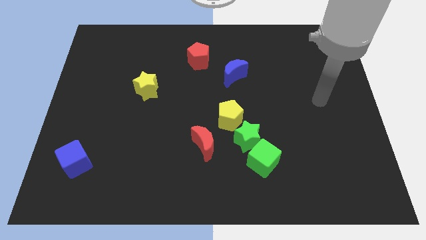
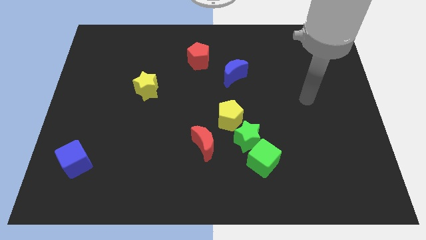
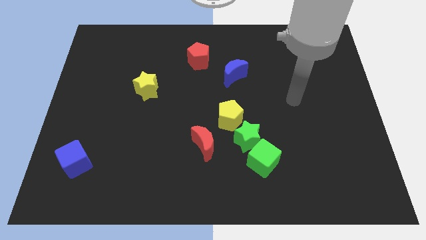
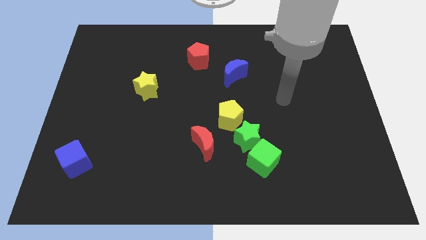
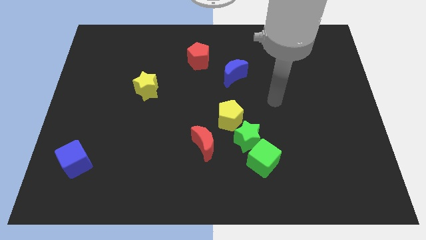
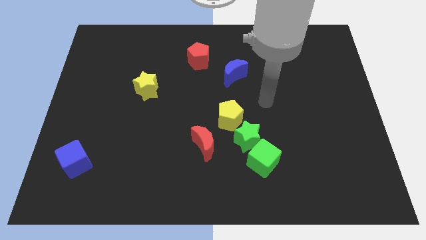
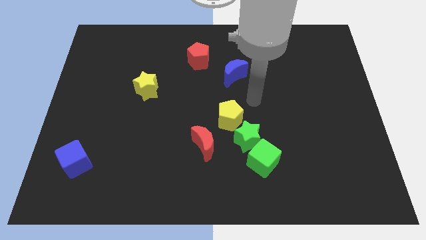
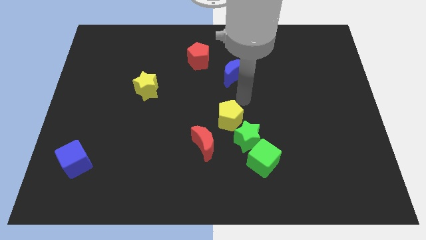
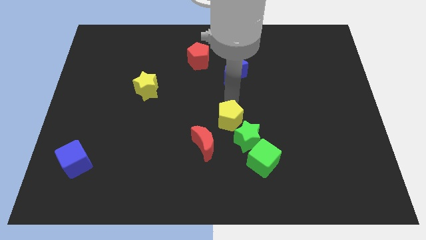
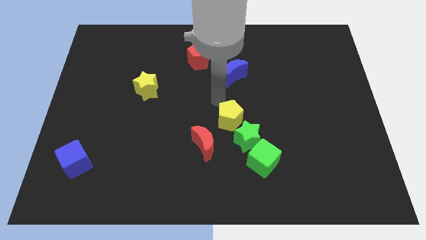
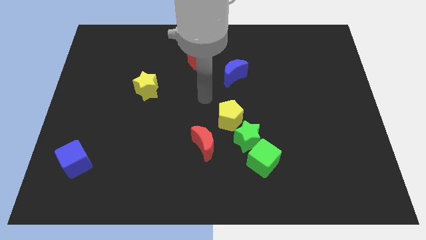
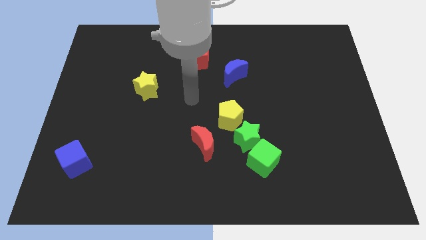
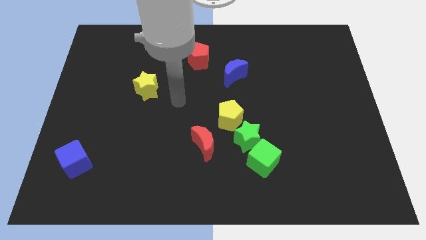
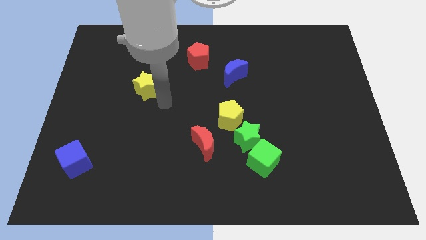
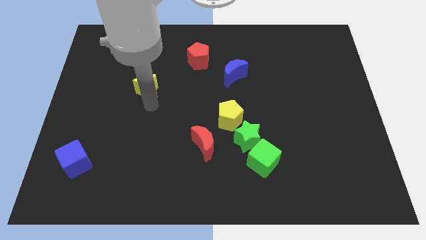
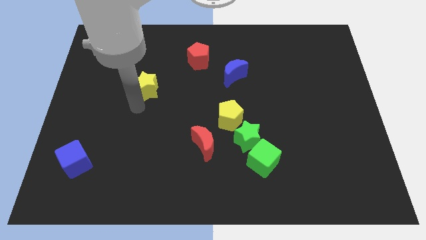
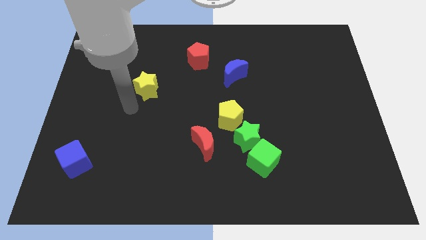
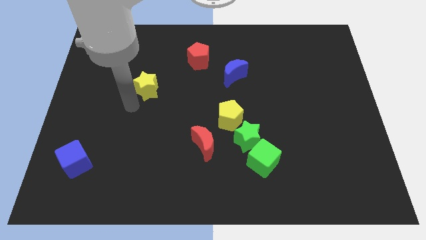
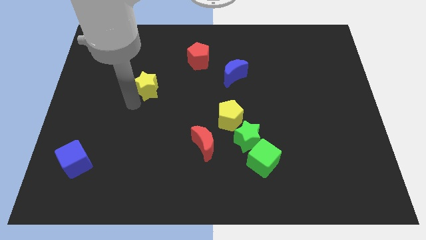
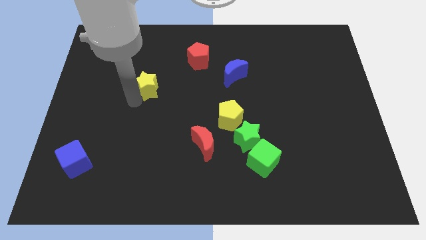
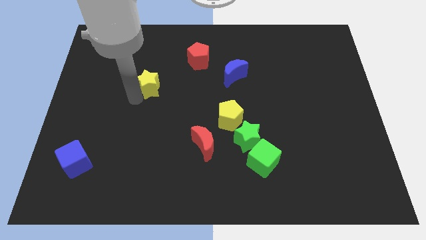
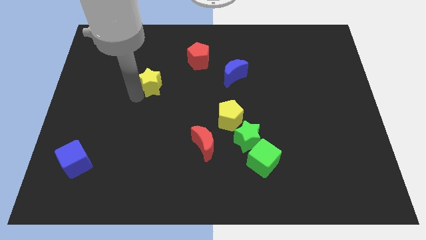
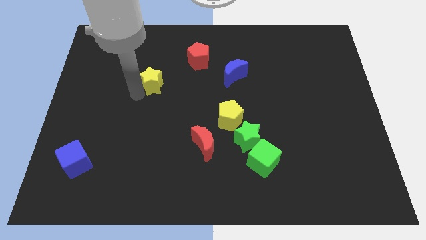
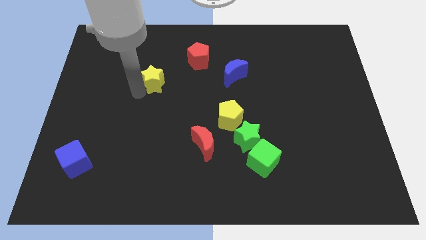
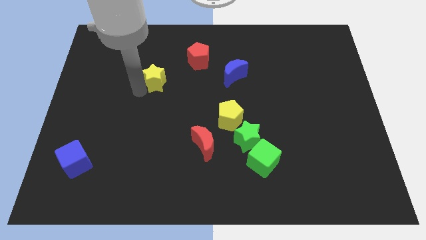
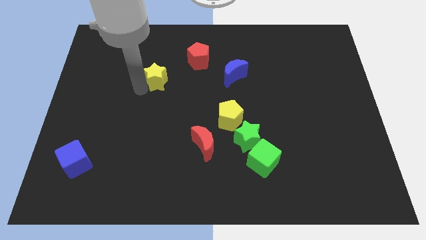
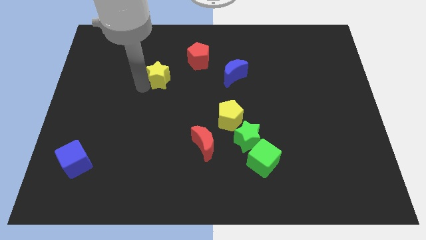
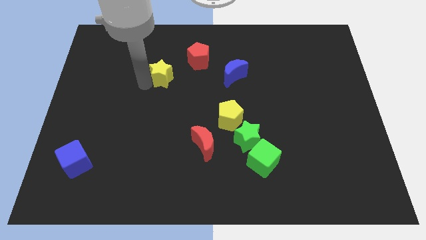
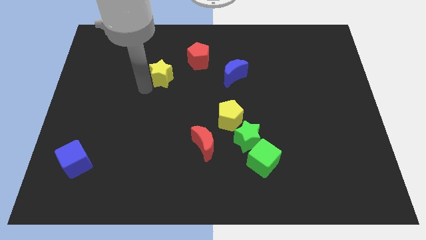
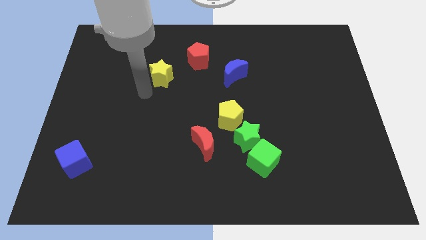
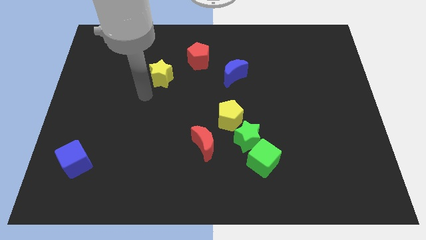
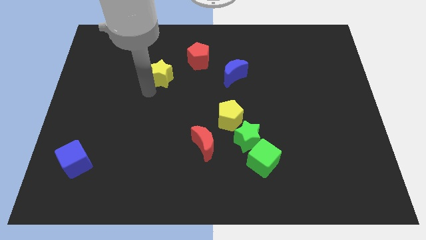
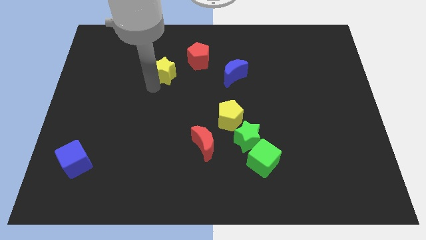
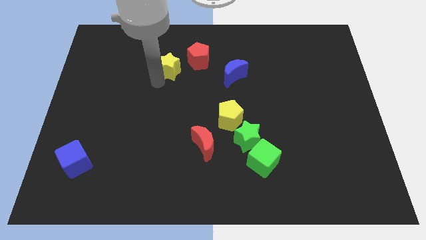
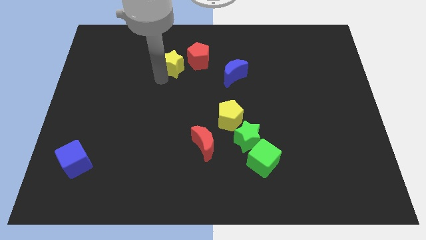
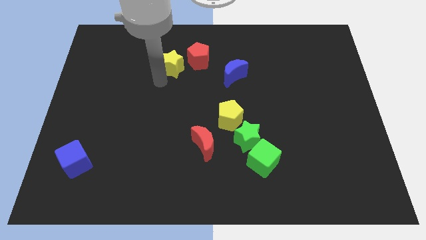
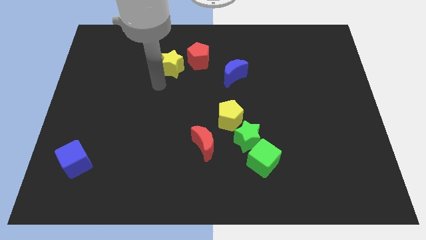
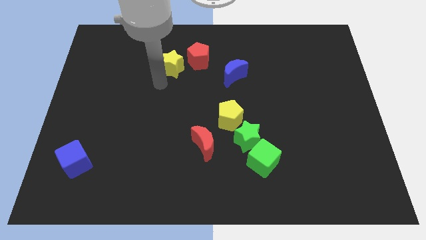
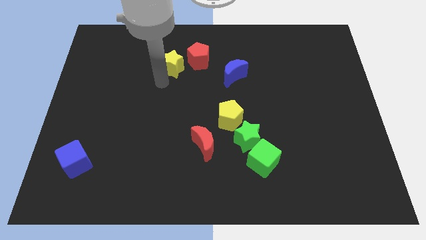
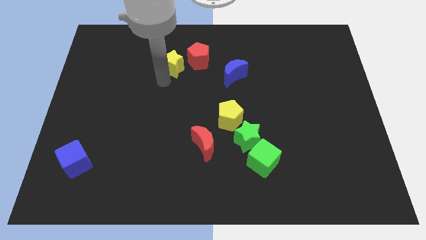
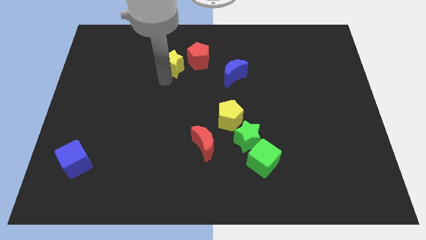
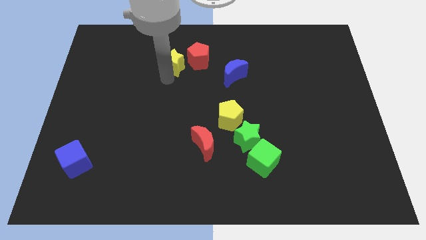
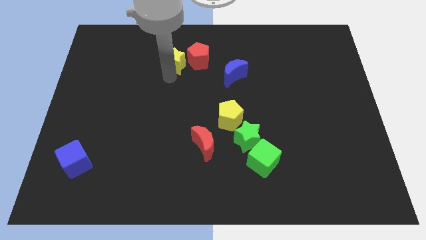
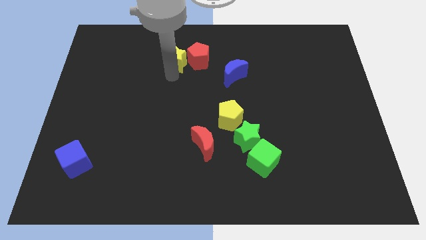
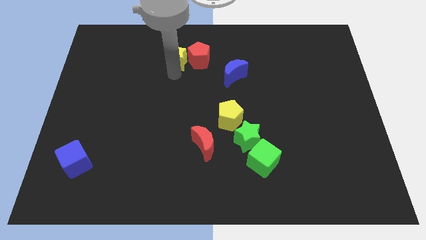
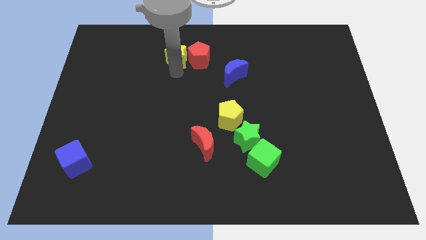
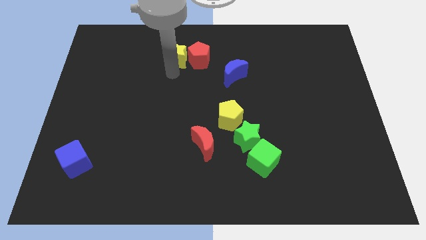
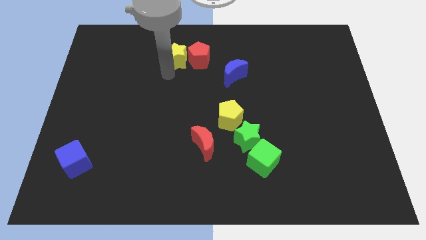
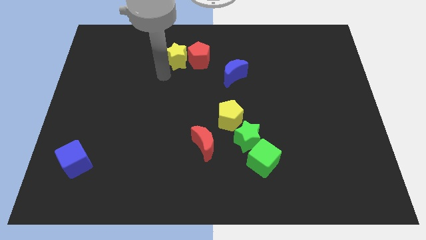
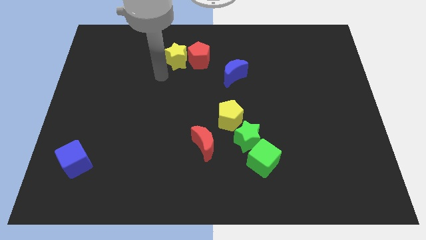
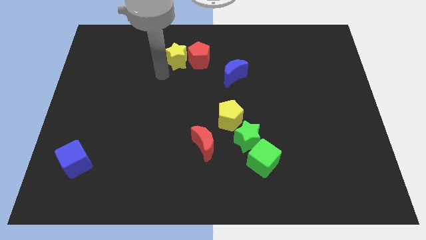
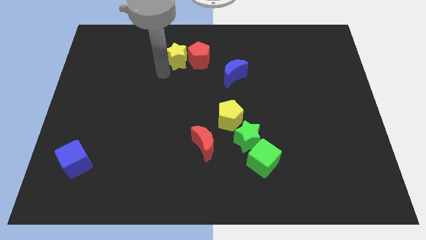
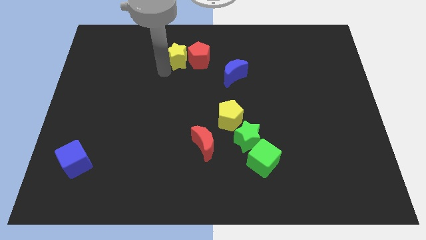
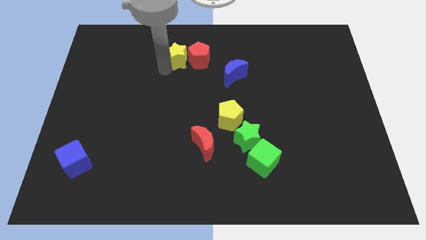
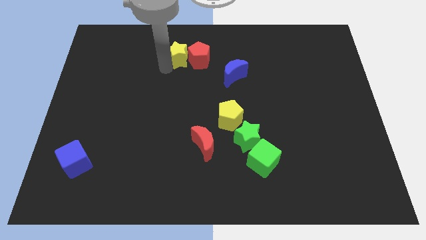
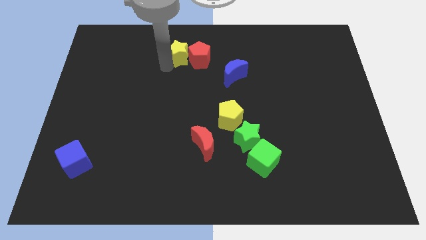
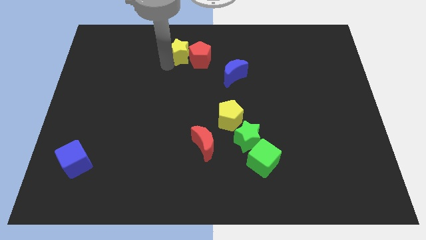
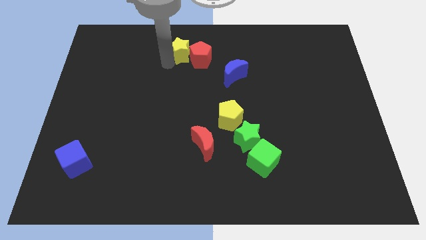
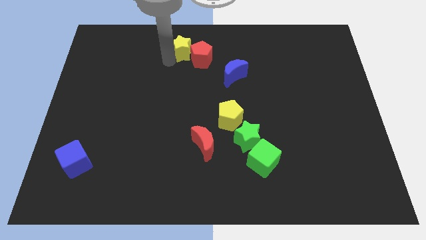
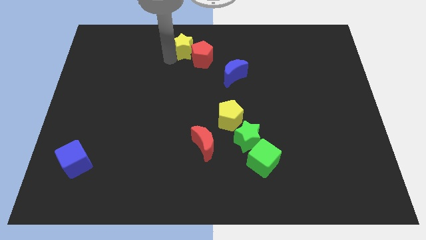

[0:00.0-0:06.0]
push the yellow star to the top

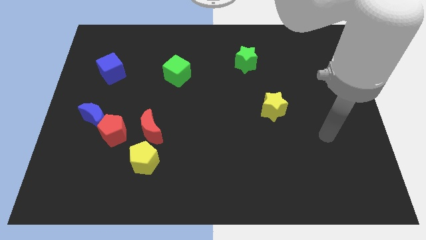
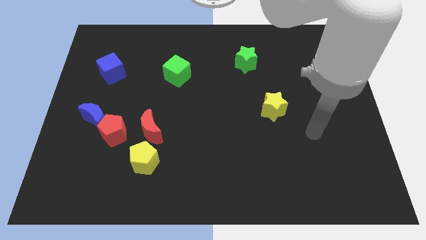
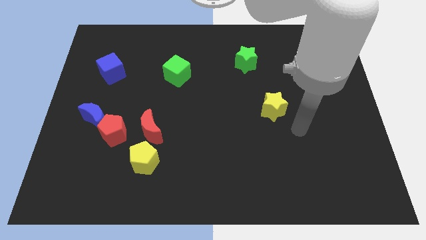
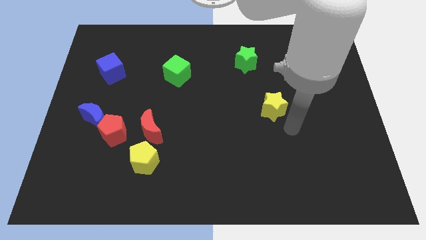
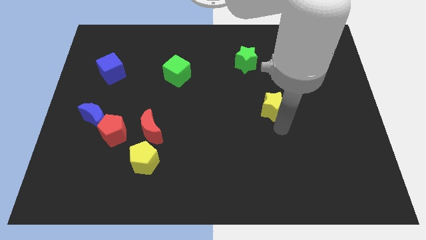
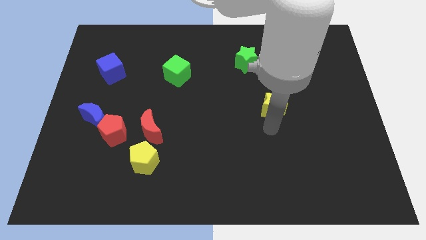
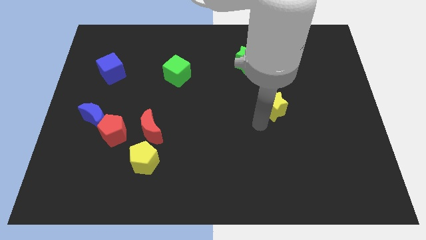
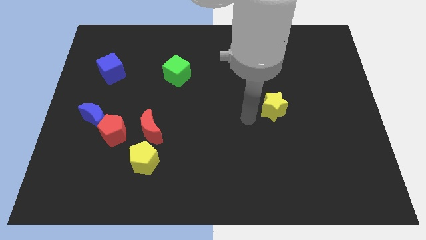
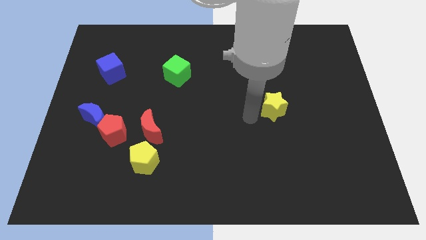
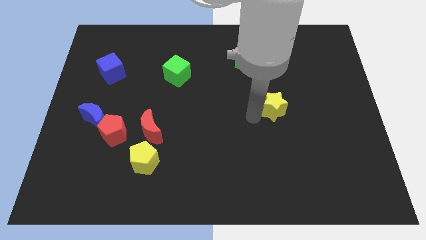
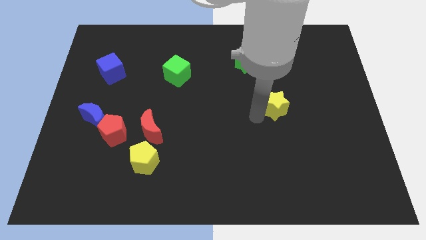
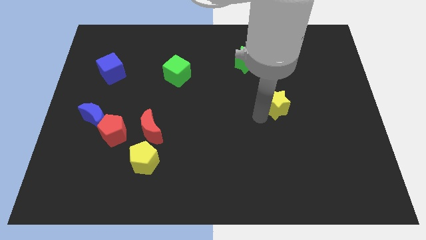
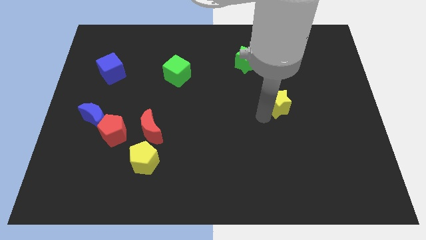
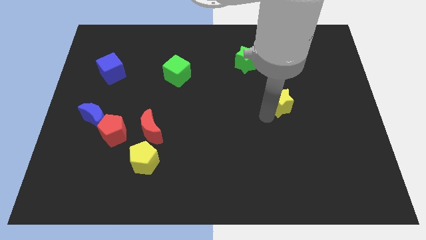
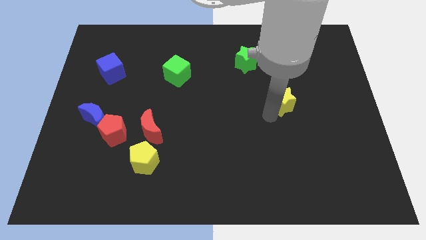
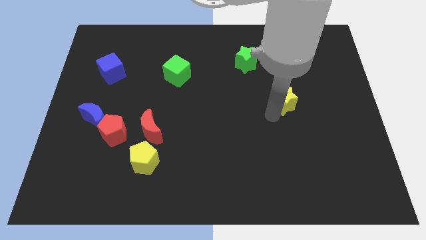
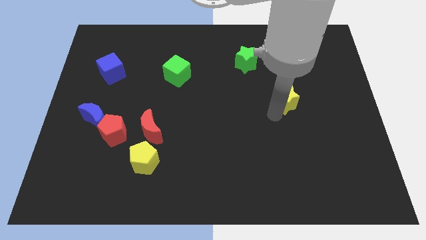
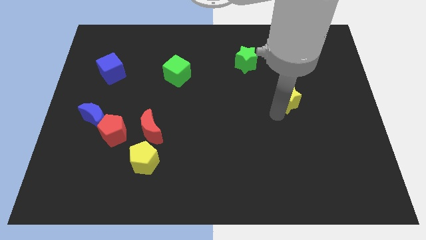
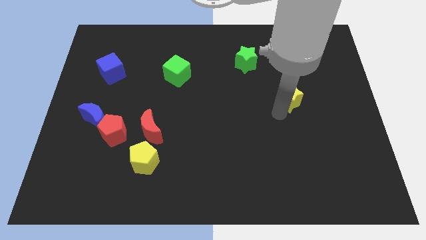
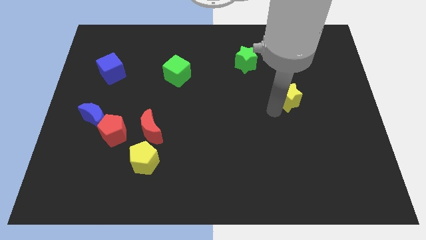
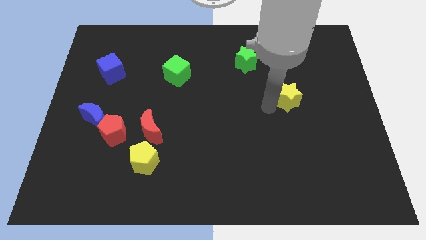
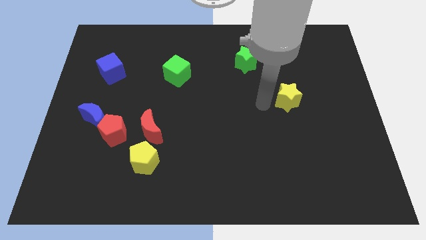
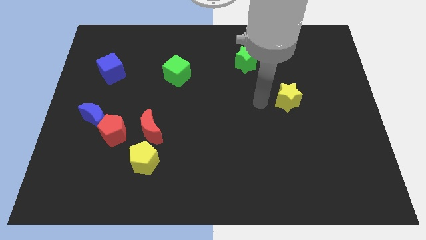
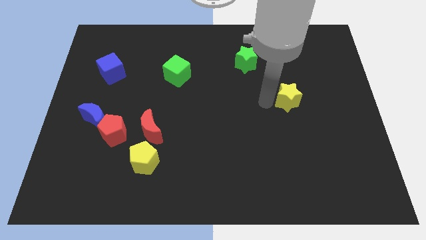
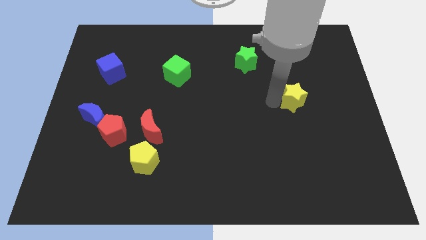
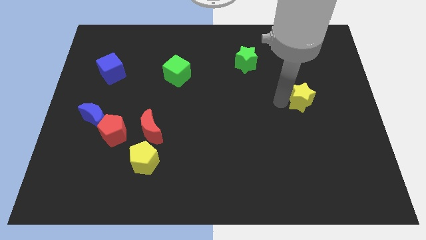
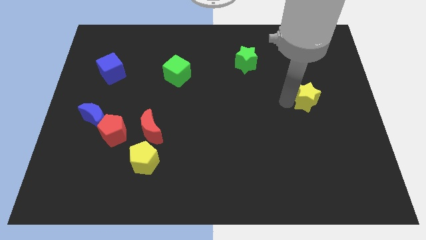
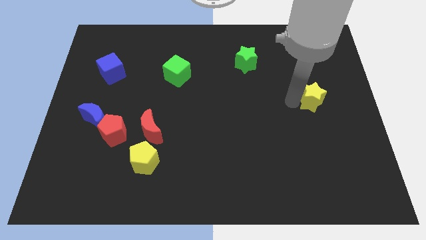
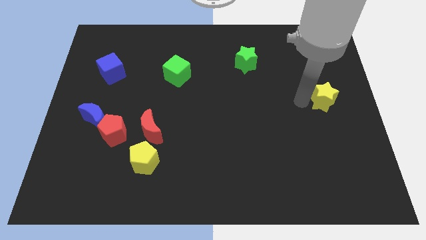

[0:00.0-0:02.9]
slide the yellow star to the right side
